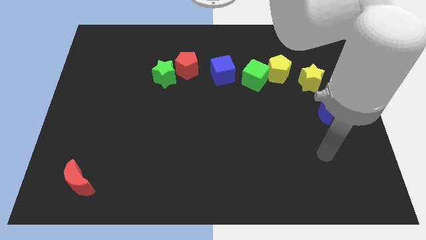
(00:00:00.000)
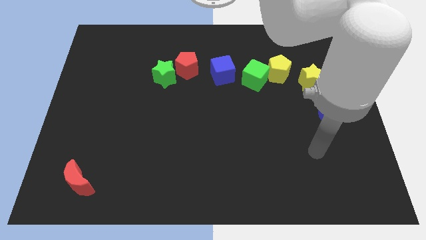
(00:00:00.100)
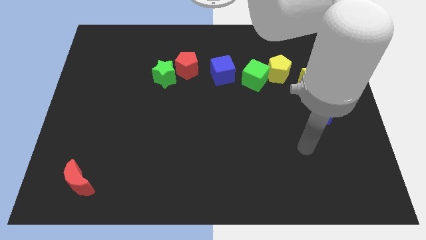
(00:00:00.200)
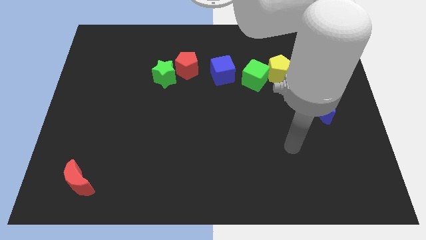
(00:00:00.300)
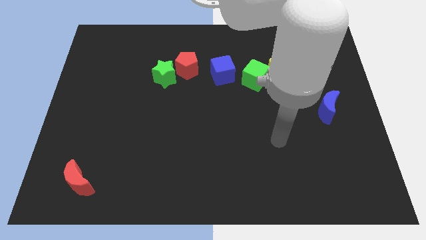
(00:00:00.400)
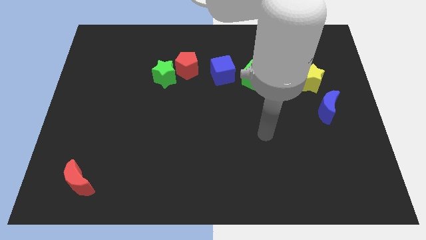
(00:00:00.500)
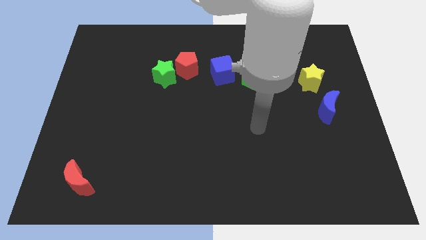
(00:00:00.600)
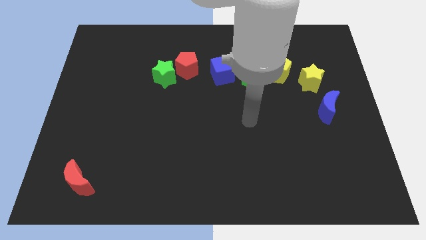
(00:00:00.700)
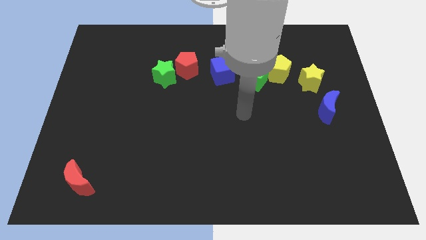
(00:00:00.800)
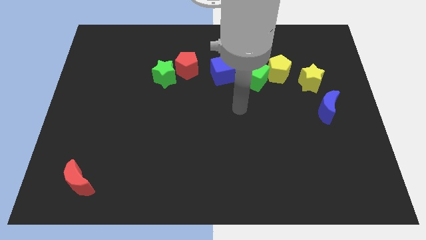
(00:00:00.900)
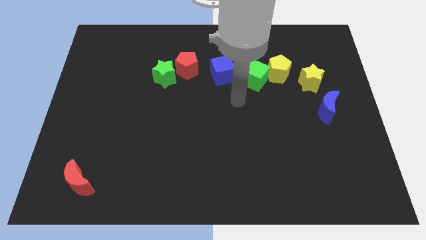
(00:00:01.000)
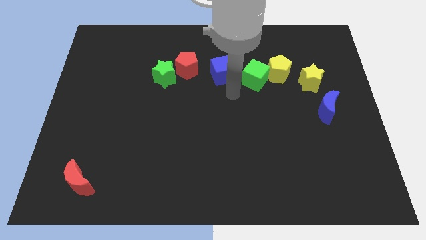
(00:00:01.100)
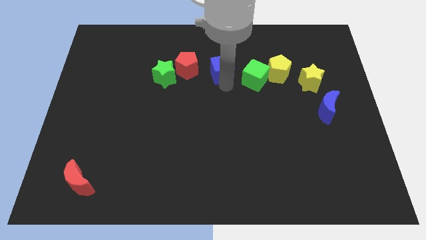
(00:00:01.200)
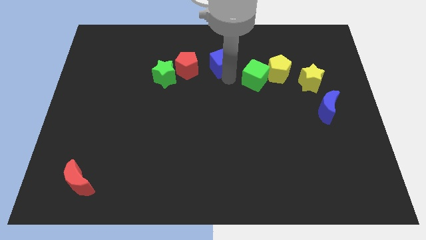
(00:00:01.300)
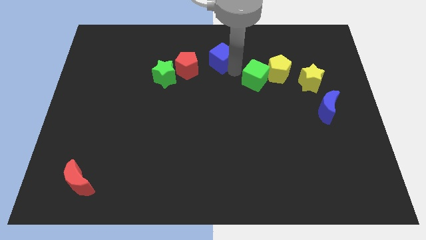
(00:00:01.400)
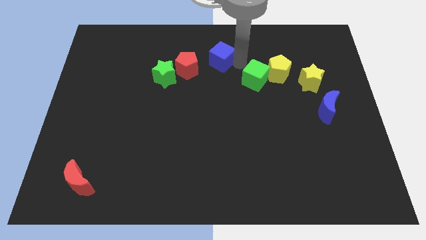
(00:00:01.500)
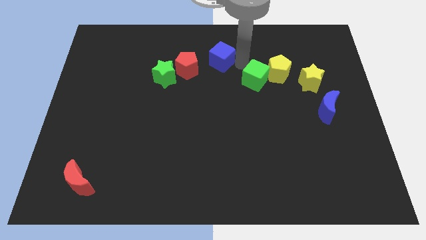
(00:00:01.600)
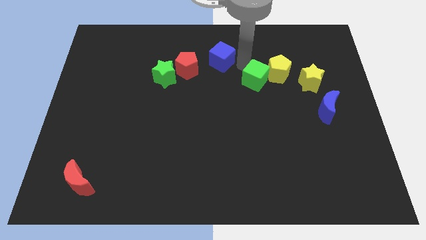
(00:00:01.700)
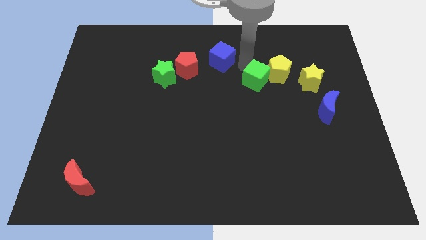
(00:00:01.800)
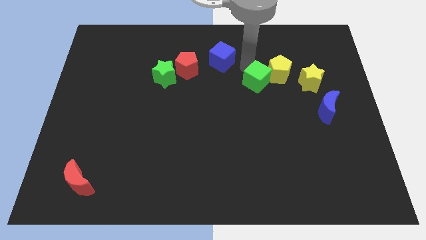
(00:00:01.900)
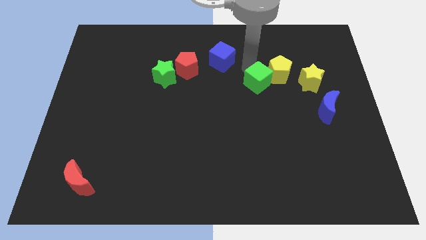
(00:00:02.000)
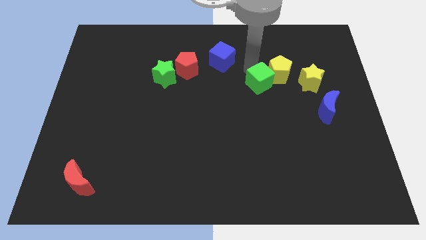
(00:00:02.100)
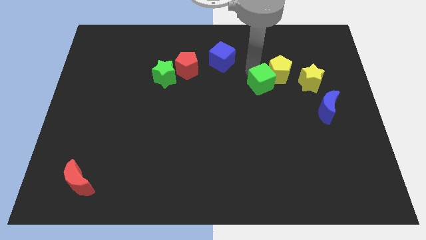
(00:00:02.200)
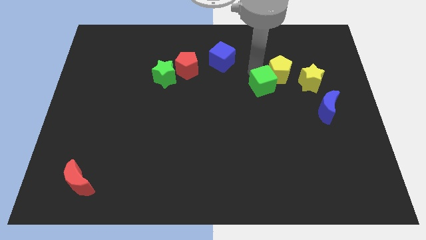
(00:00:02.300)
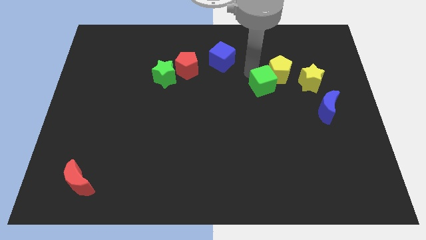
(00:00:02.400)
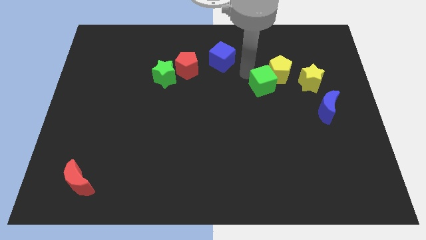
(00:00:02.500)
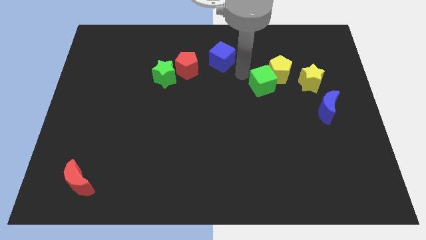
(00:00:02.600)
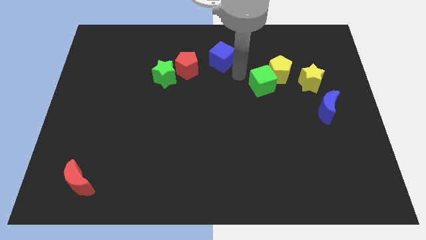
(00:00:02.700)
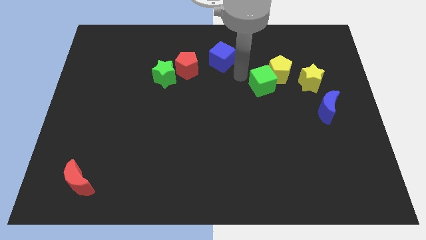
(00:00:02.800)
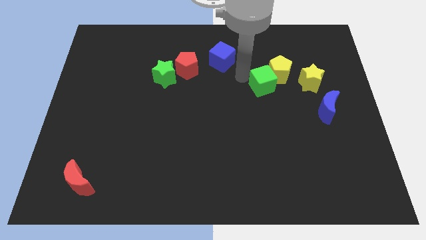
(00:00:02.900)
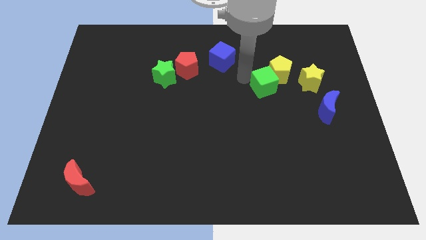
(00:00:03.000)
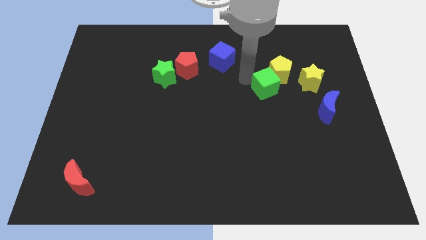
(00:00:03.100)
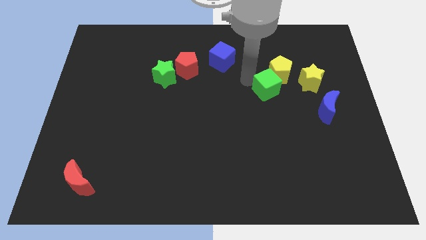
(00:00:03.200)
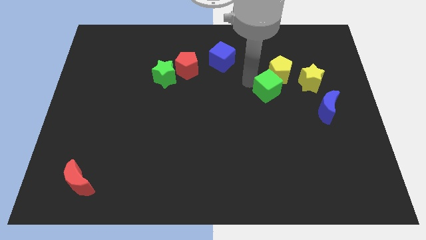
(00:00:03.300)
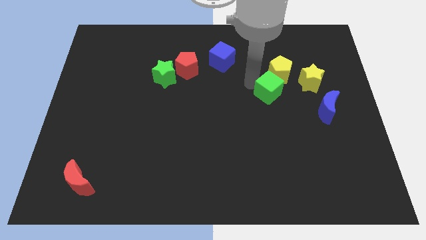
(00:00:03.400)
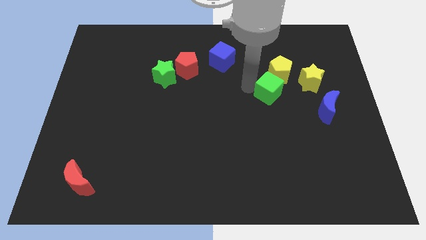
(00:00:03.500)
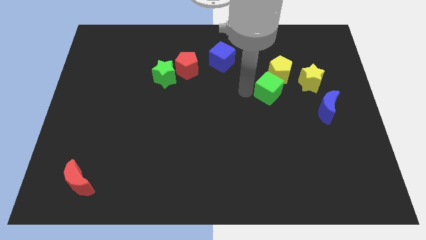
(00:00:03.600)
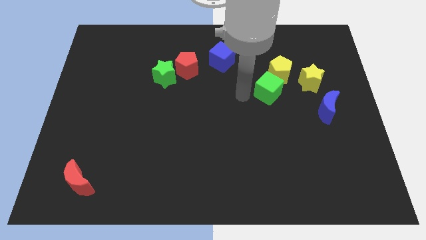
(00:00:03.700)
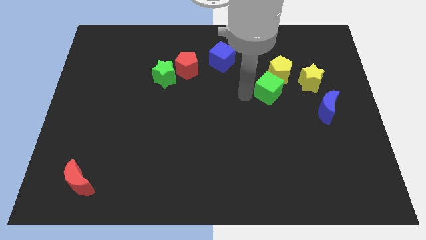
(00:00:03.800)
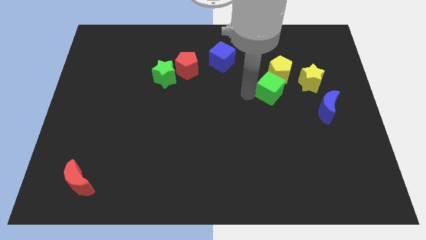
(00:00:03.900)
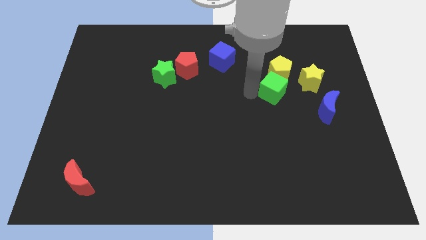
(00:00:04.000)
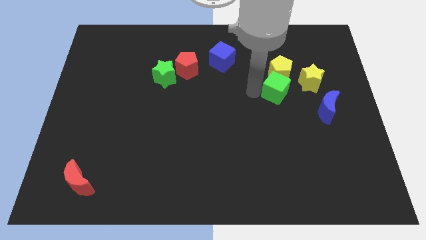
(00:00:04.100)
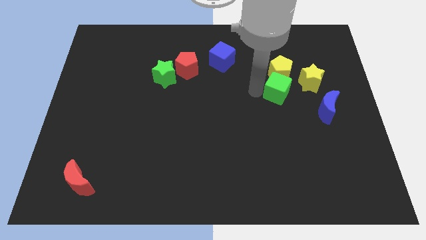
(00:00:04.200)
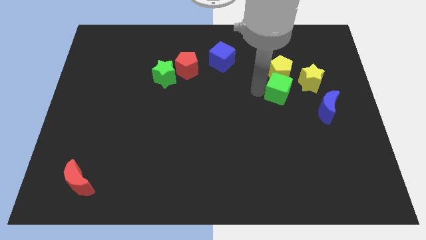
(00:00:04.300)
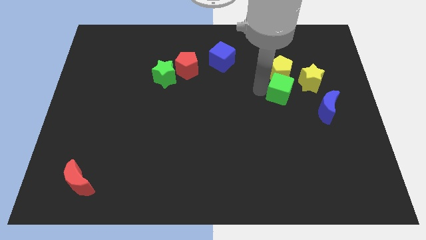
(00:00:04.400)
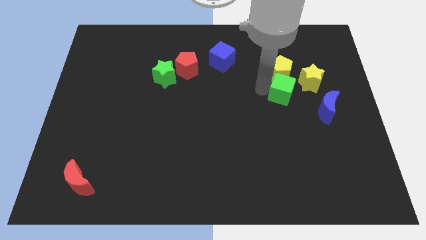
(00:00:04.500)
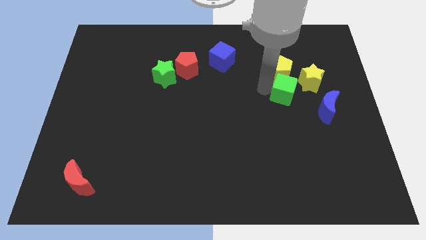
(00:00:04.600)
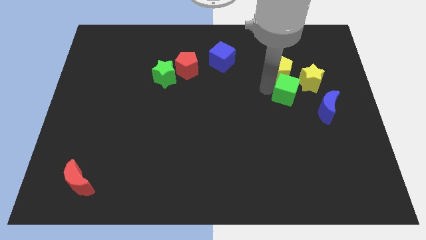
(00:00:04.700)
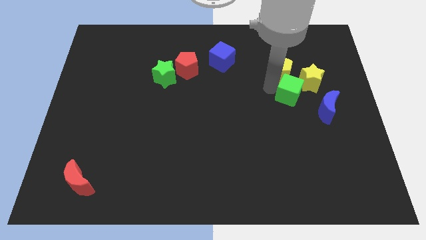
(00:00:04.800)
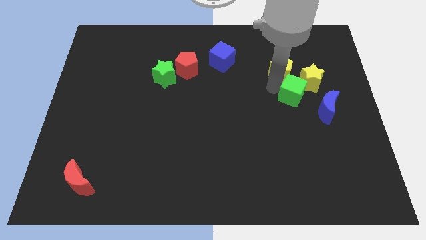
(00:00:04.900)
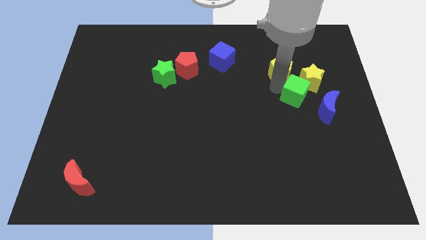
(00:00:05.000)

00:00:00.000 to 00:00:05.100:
move the green cube next to the yellow star

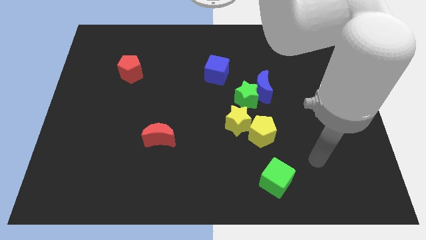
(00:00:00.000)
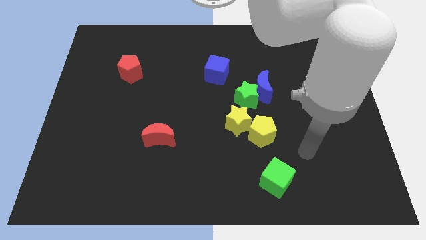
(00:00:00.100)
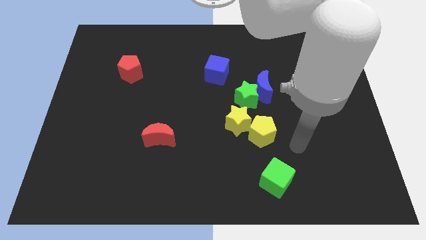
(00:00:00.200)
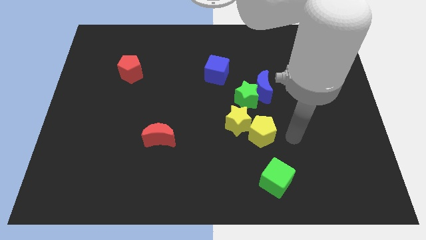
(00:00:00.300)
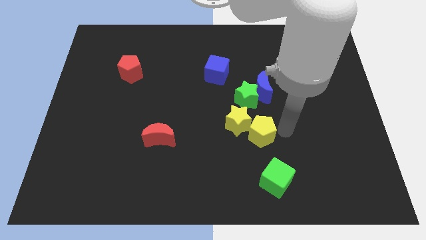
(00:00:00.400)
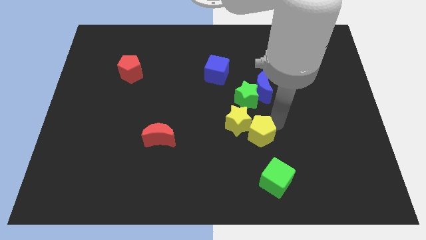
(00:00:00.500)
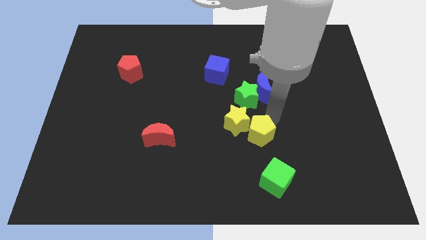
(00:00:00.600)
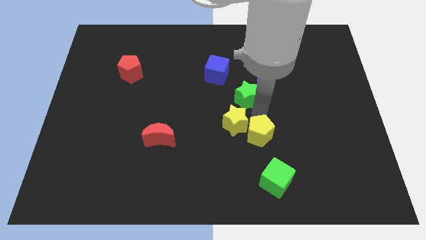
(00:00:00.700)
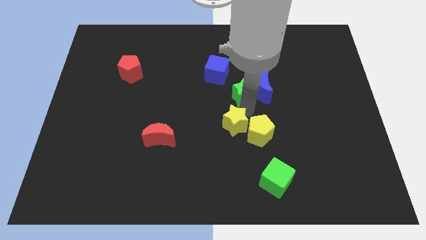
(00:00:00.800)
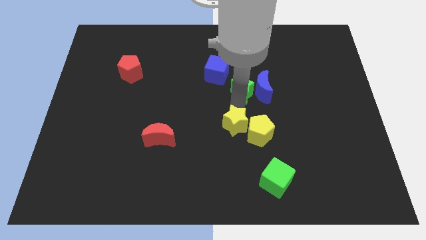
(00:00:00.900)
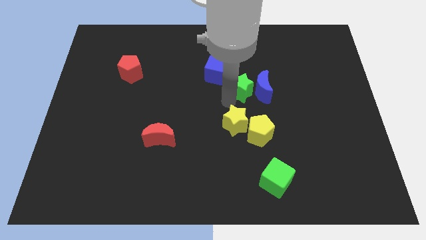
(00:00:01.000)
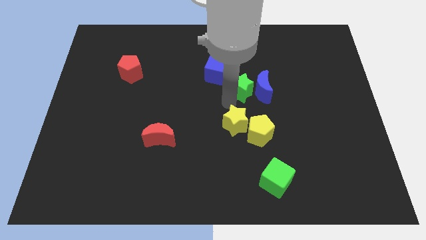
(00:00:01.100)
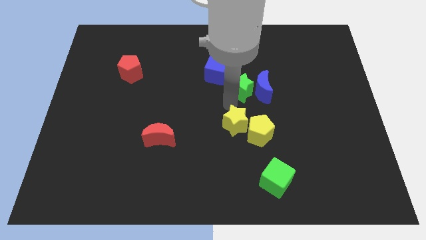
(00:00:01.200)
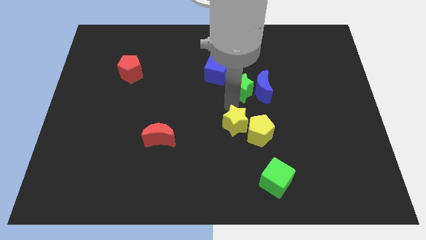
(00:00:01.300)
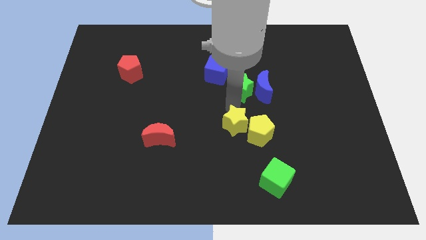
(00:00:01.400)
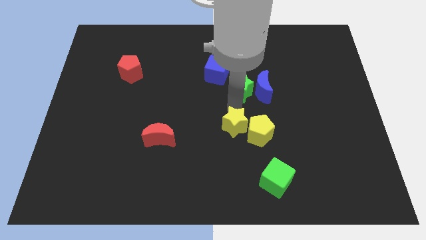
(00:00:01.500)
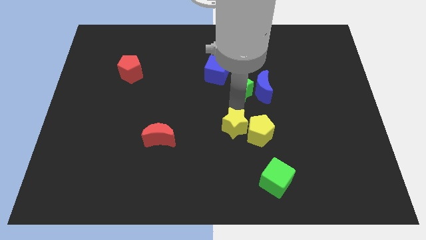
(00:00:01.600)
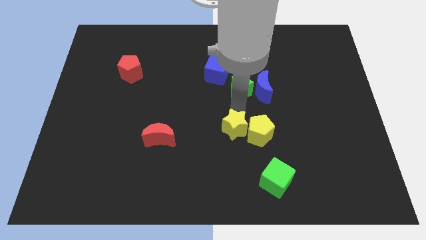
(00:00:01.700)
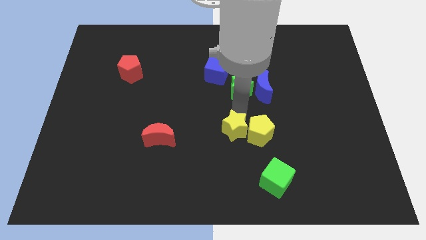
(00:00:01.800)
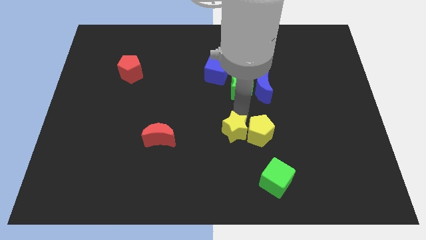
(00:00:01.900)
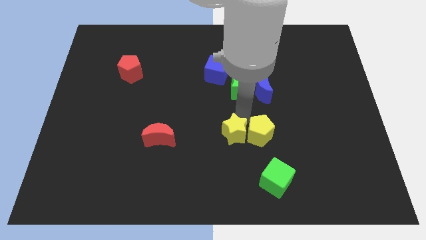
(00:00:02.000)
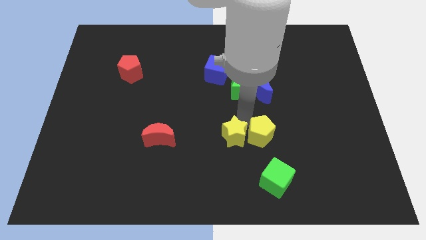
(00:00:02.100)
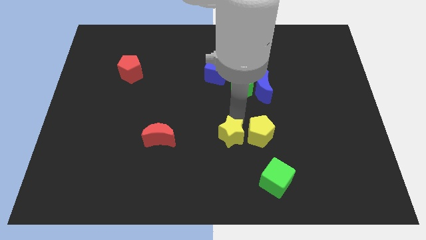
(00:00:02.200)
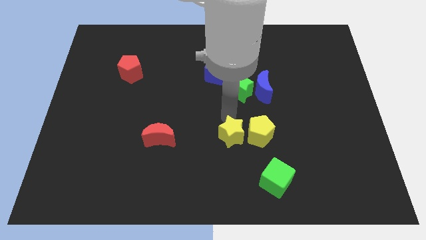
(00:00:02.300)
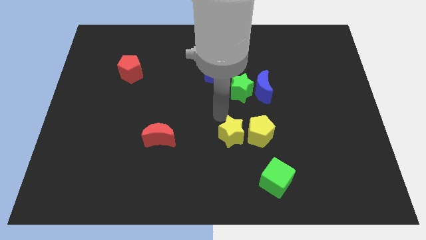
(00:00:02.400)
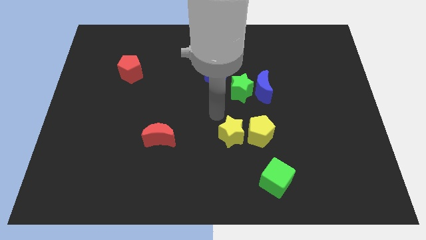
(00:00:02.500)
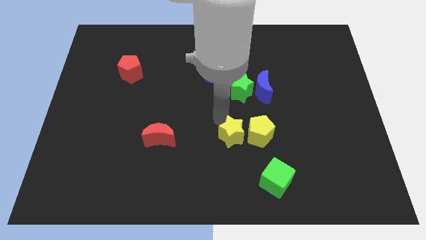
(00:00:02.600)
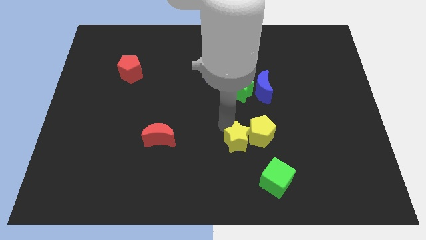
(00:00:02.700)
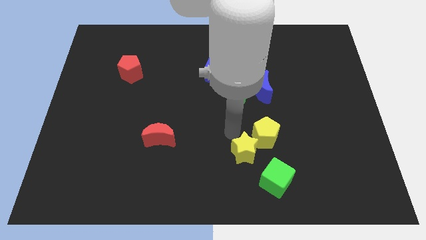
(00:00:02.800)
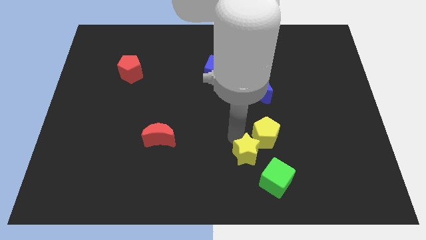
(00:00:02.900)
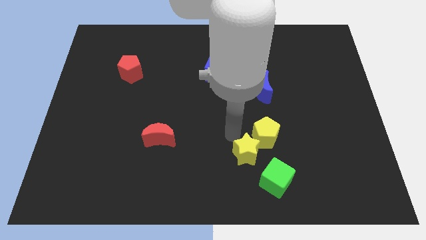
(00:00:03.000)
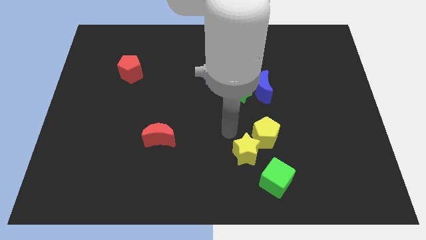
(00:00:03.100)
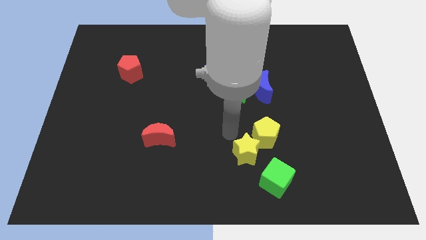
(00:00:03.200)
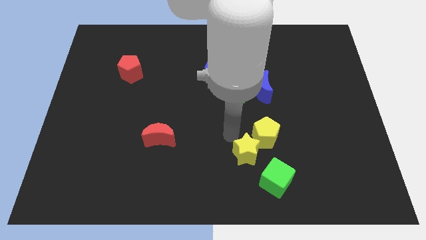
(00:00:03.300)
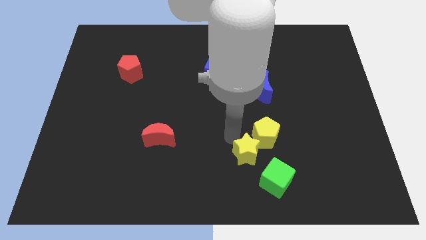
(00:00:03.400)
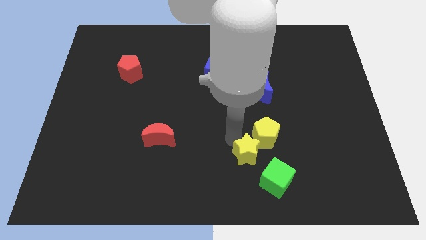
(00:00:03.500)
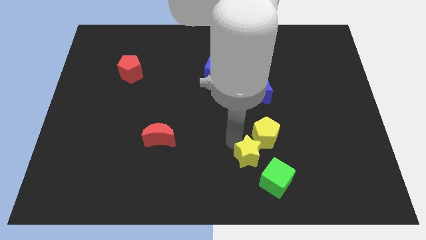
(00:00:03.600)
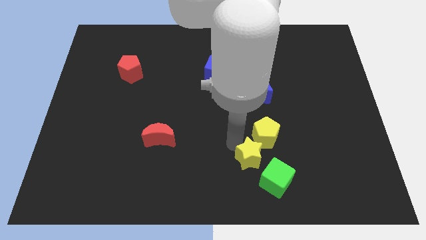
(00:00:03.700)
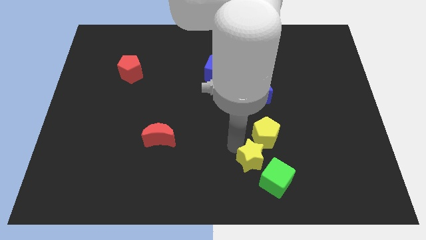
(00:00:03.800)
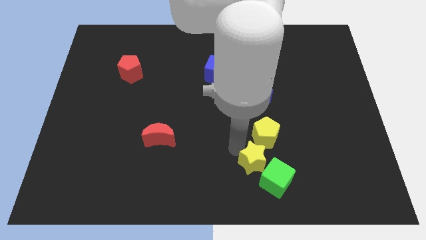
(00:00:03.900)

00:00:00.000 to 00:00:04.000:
slide the yellow star next to the green cube
